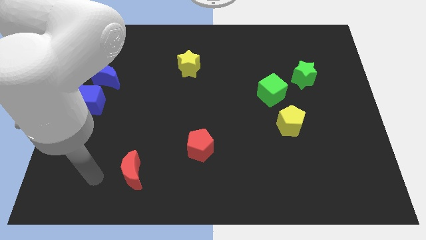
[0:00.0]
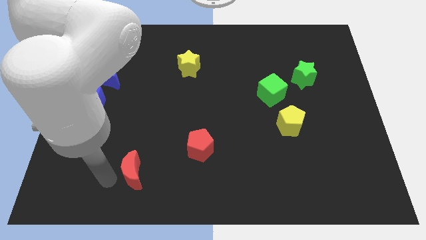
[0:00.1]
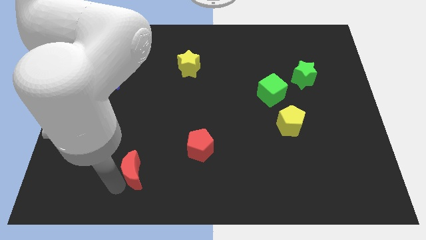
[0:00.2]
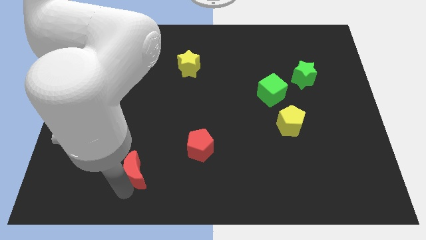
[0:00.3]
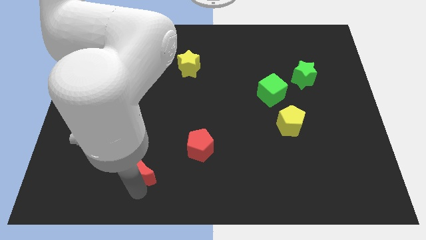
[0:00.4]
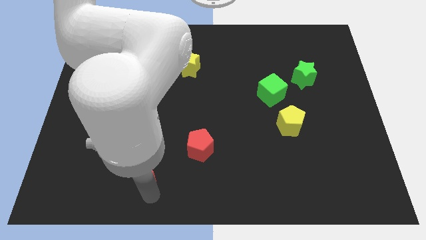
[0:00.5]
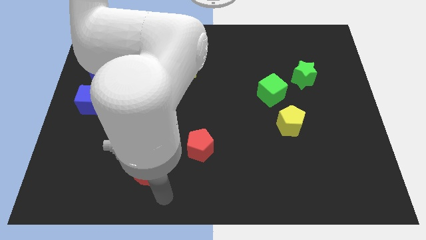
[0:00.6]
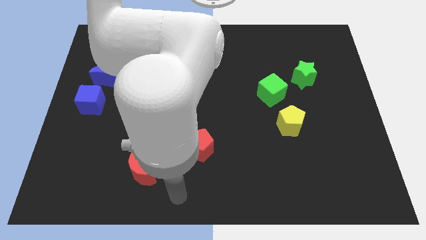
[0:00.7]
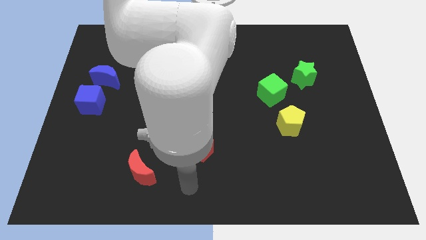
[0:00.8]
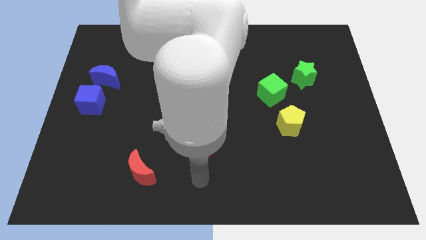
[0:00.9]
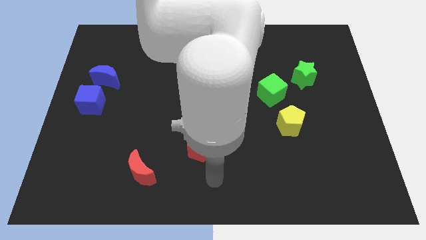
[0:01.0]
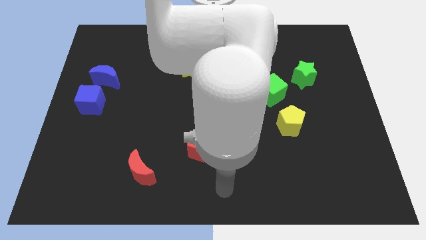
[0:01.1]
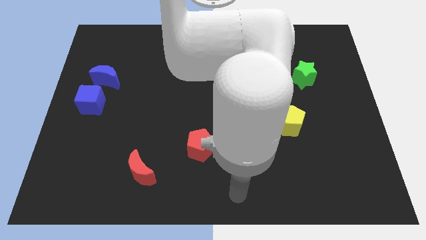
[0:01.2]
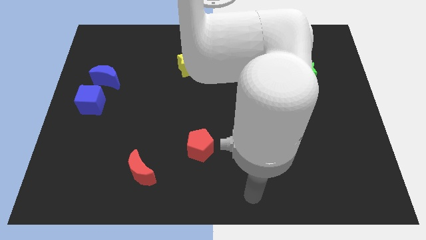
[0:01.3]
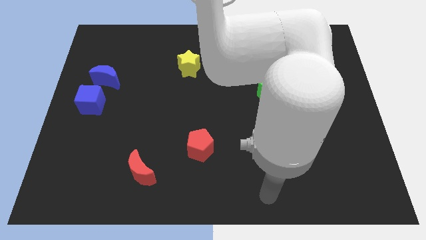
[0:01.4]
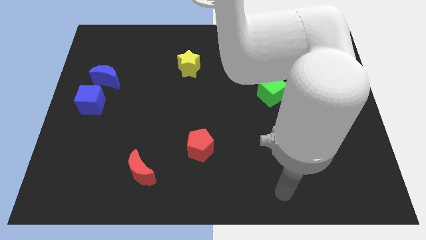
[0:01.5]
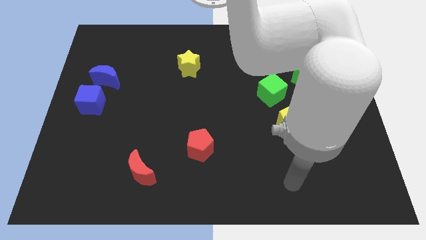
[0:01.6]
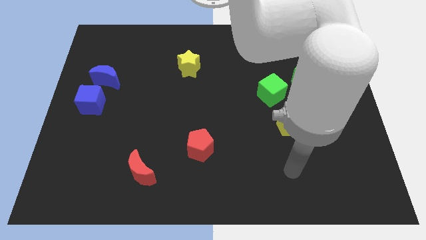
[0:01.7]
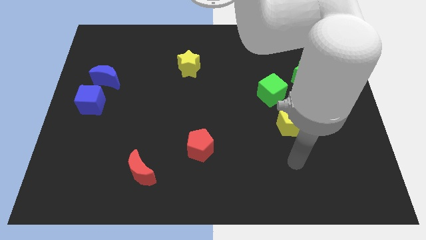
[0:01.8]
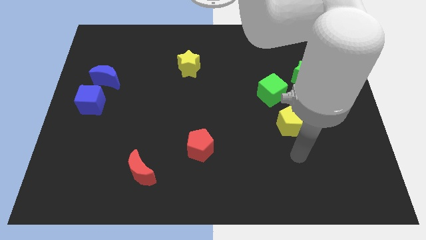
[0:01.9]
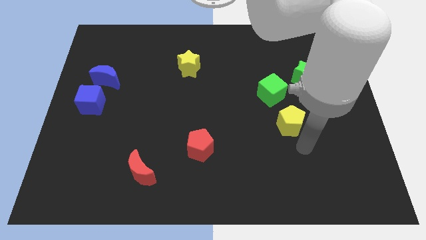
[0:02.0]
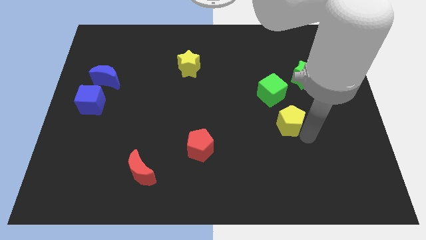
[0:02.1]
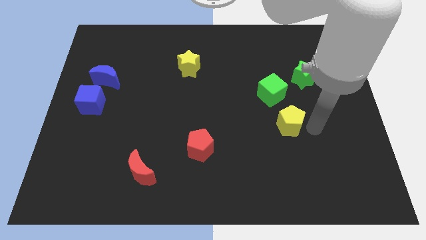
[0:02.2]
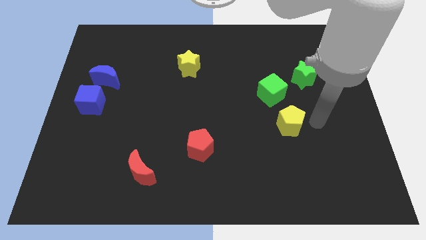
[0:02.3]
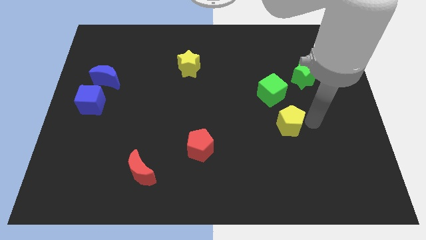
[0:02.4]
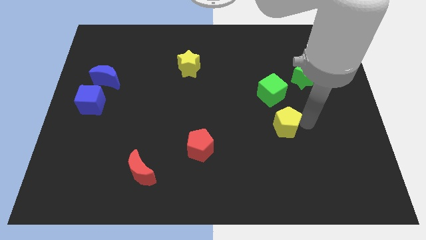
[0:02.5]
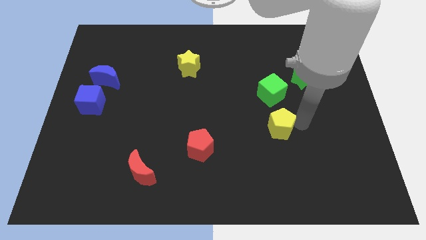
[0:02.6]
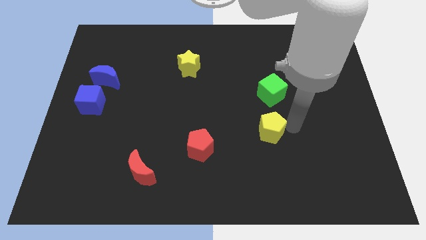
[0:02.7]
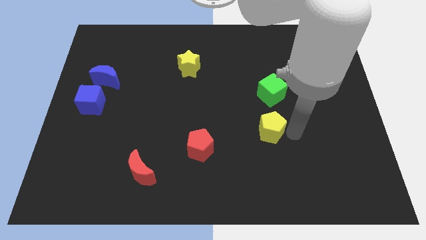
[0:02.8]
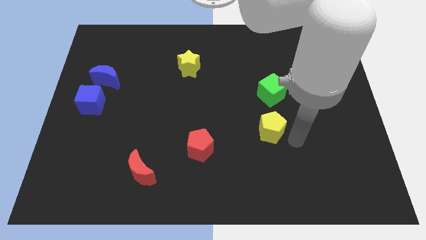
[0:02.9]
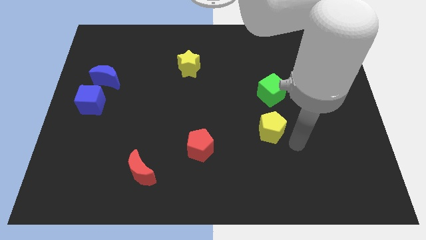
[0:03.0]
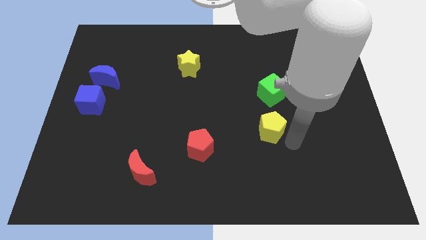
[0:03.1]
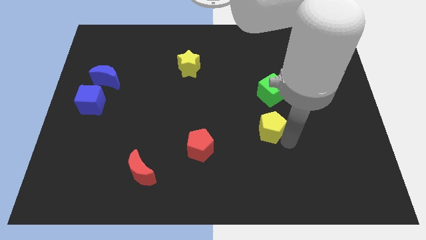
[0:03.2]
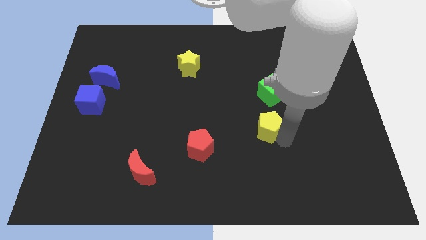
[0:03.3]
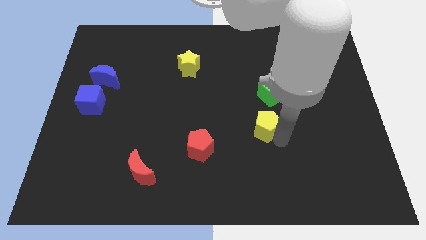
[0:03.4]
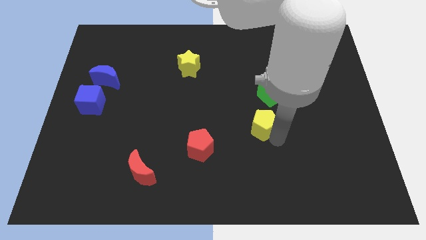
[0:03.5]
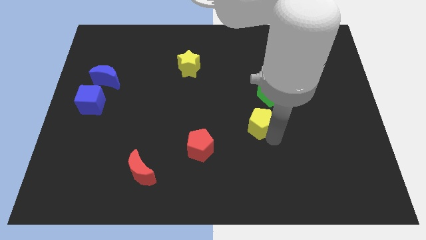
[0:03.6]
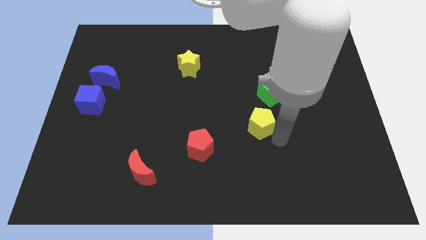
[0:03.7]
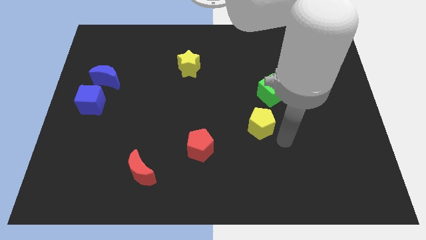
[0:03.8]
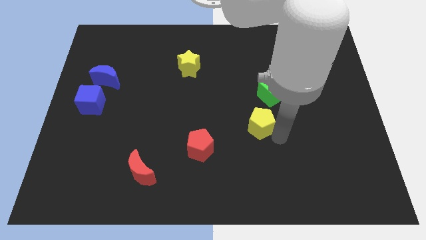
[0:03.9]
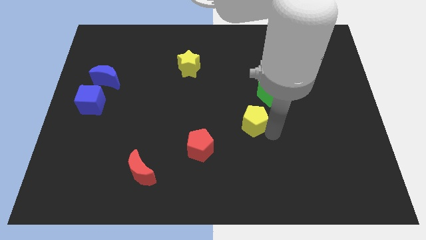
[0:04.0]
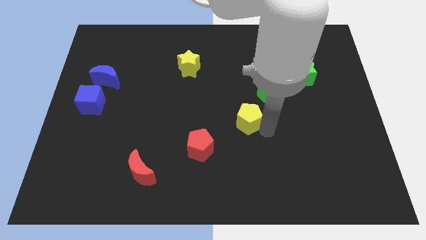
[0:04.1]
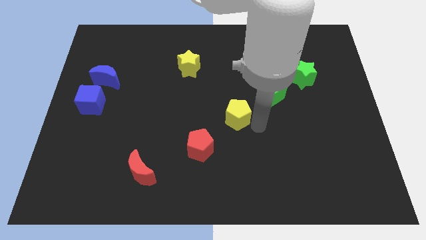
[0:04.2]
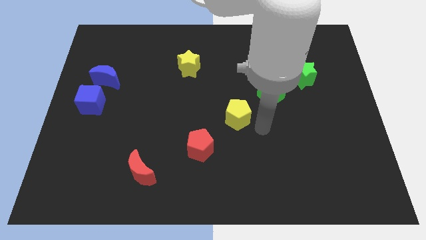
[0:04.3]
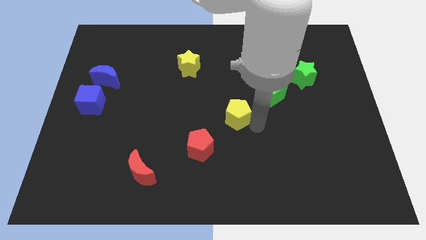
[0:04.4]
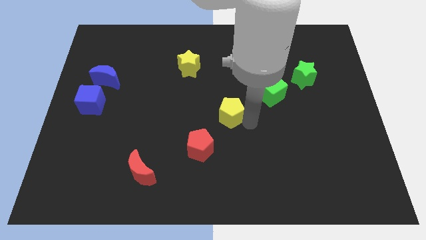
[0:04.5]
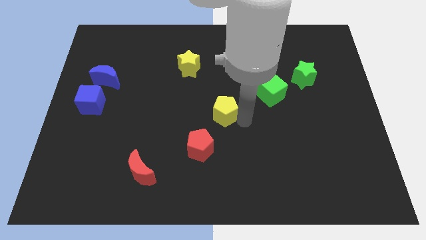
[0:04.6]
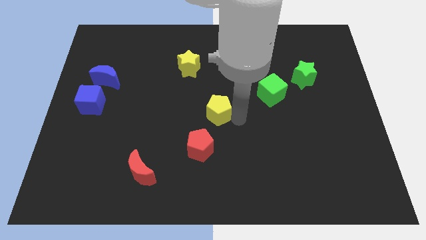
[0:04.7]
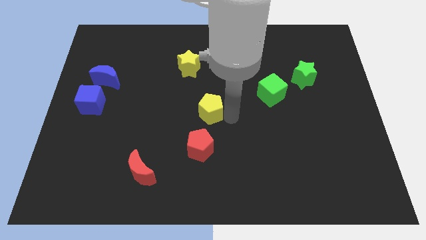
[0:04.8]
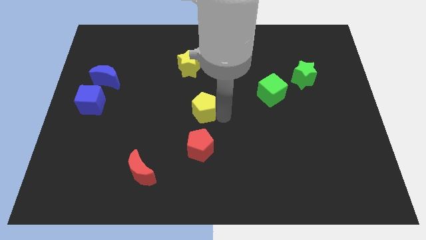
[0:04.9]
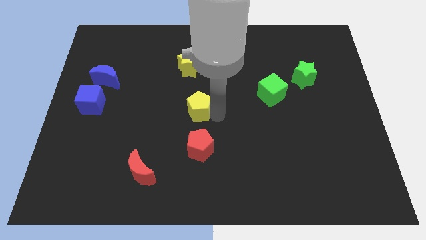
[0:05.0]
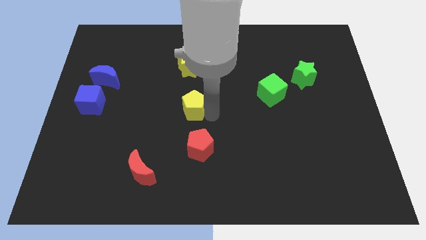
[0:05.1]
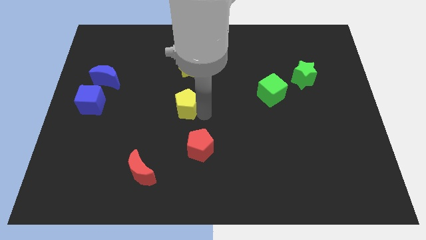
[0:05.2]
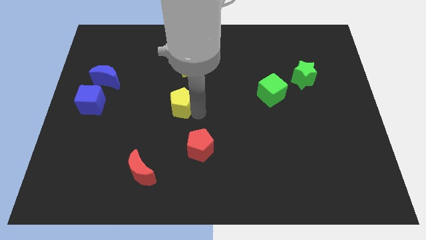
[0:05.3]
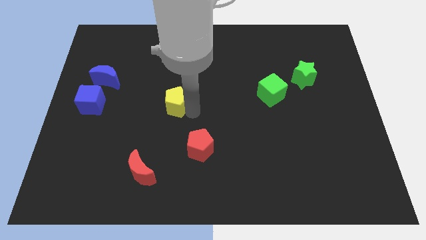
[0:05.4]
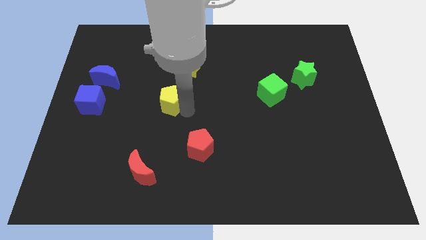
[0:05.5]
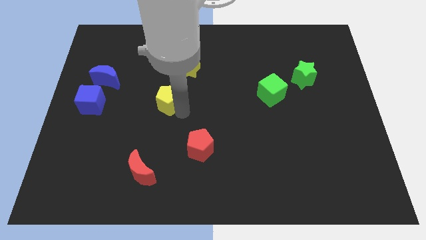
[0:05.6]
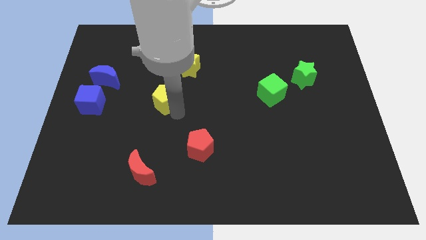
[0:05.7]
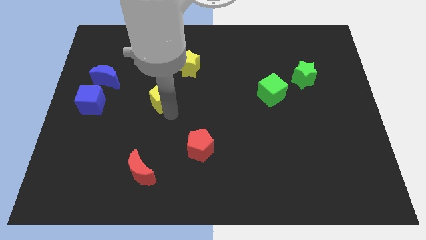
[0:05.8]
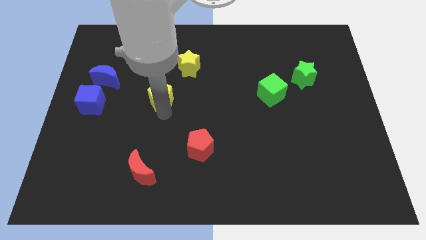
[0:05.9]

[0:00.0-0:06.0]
move the yellow pentagon to the bottom left of the yellow star

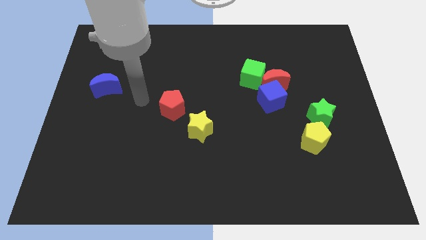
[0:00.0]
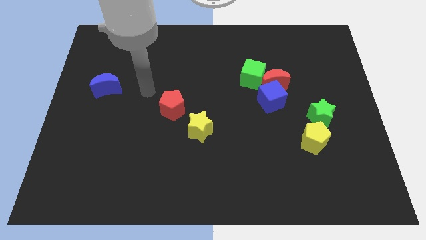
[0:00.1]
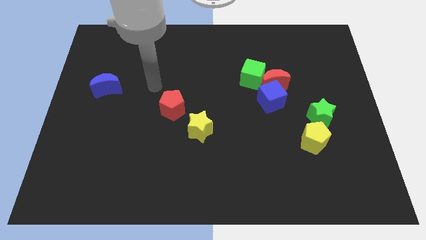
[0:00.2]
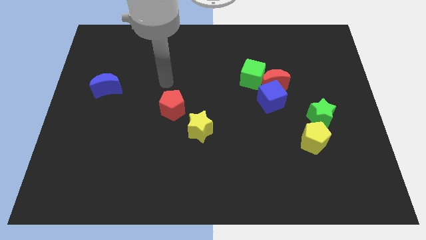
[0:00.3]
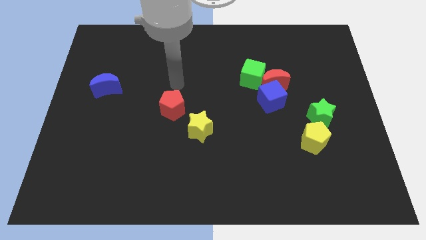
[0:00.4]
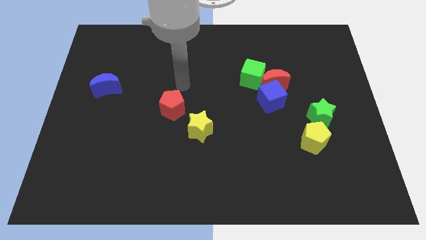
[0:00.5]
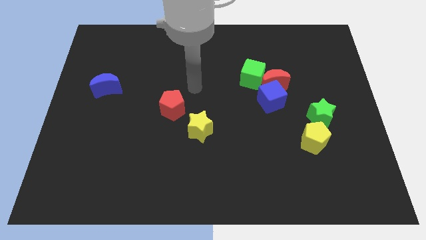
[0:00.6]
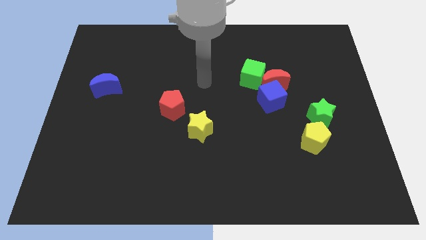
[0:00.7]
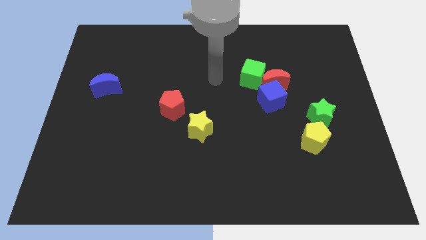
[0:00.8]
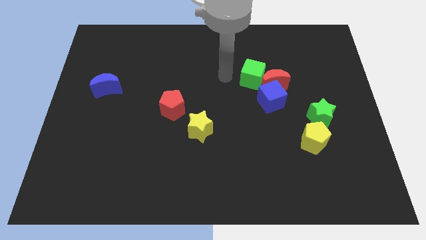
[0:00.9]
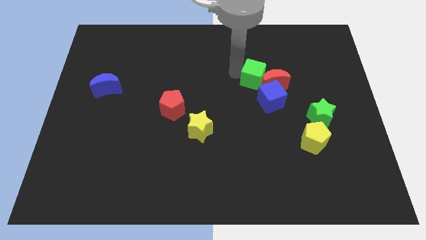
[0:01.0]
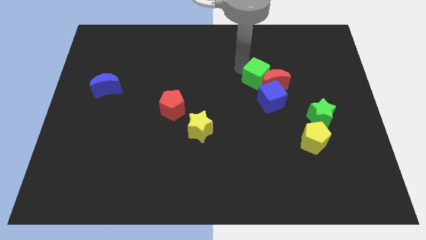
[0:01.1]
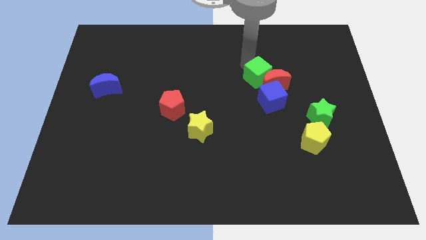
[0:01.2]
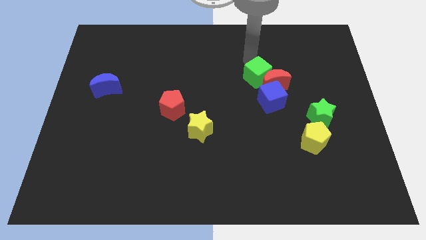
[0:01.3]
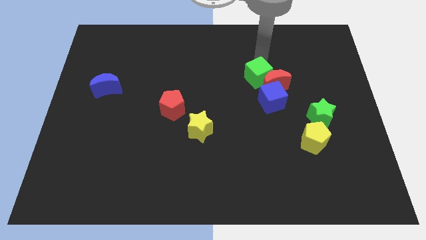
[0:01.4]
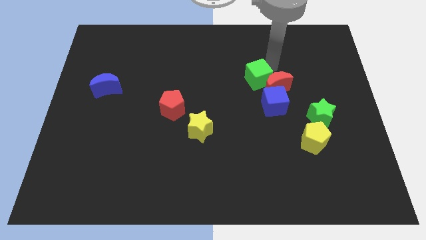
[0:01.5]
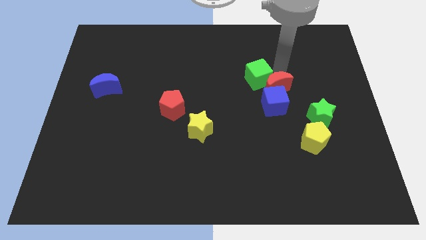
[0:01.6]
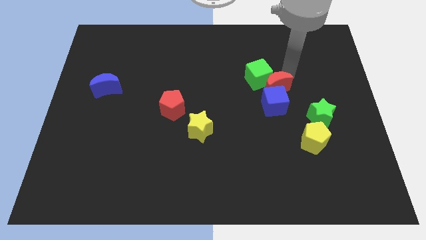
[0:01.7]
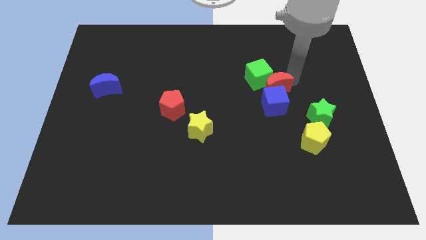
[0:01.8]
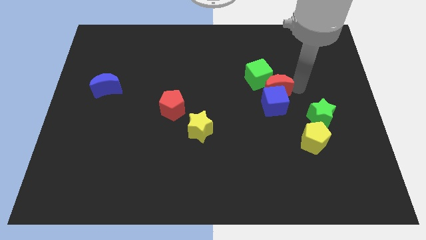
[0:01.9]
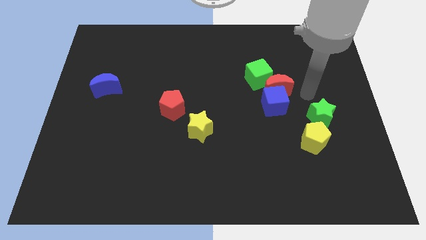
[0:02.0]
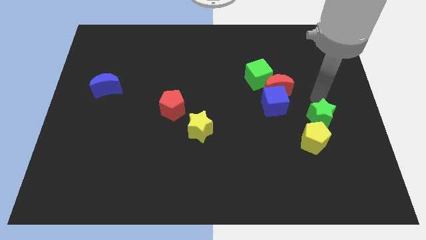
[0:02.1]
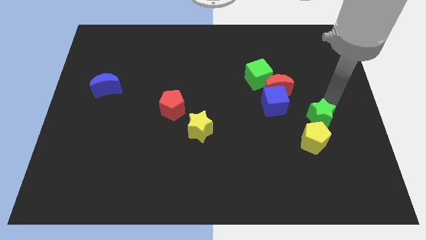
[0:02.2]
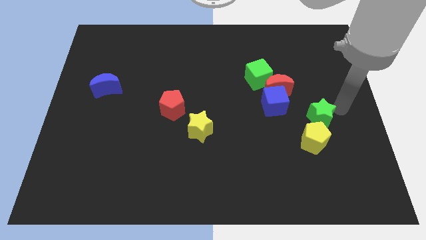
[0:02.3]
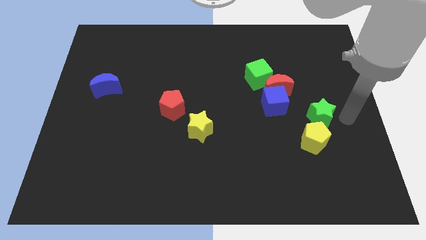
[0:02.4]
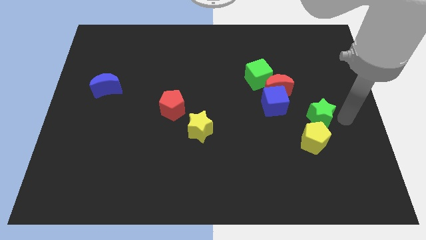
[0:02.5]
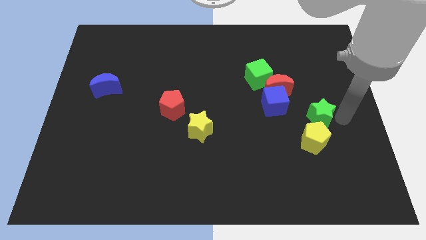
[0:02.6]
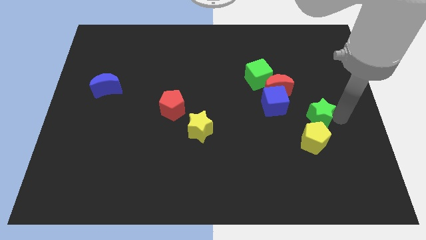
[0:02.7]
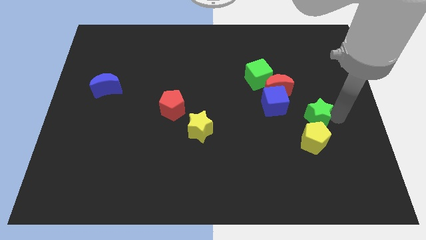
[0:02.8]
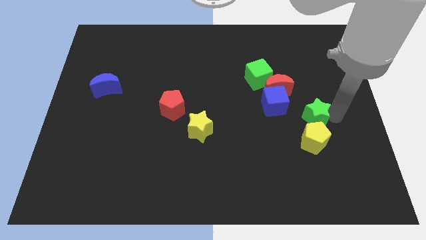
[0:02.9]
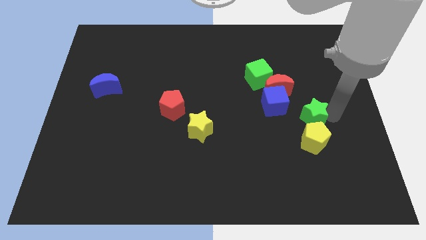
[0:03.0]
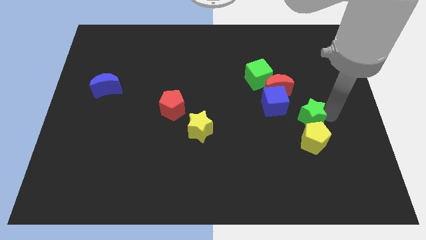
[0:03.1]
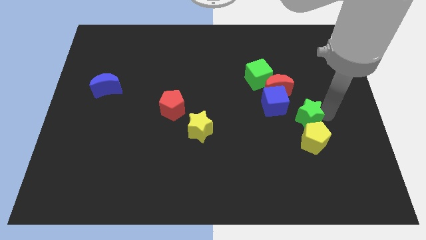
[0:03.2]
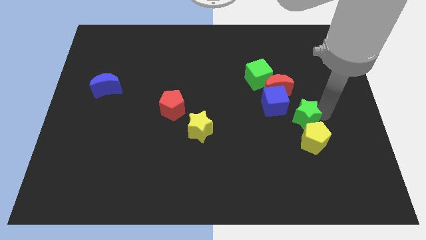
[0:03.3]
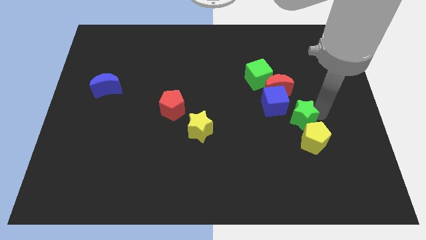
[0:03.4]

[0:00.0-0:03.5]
move the green star to the bottom side of the red moon
